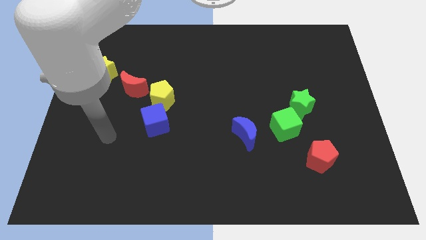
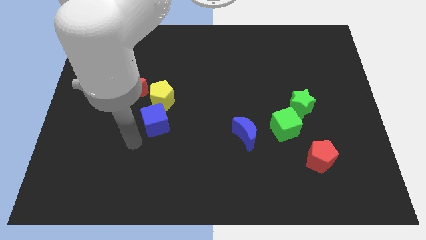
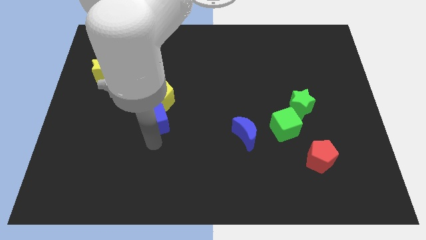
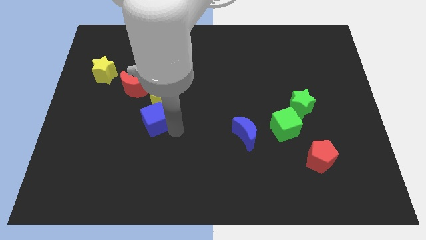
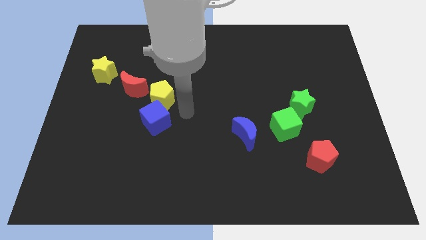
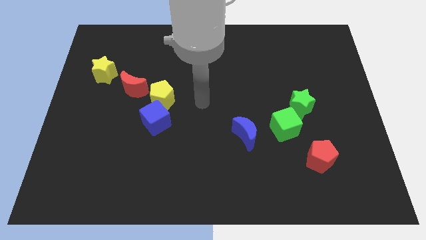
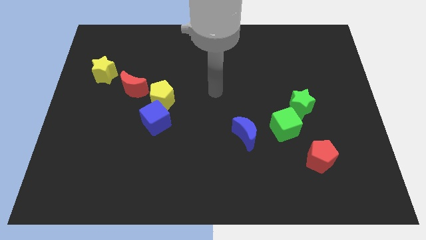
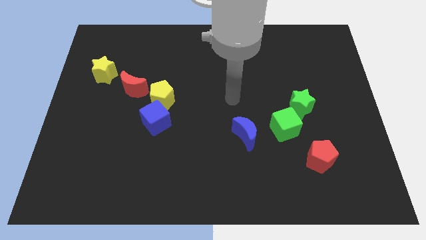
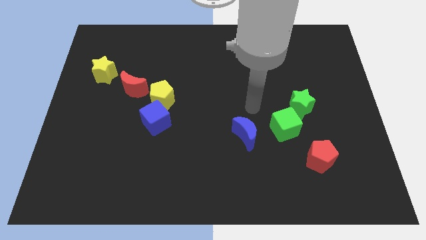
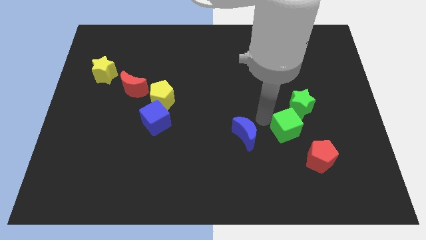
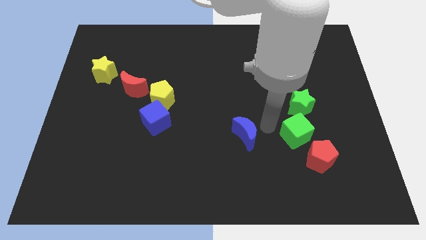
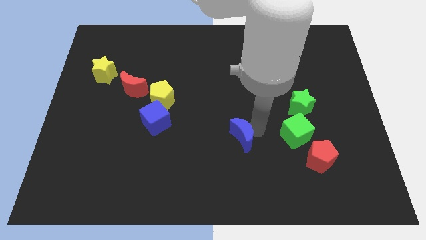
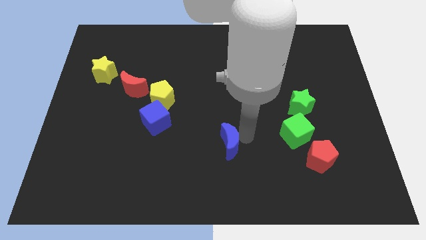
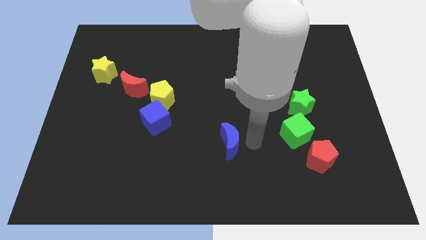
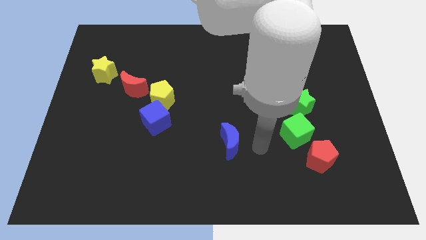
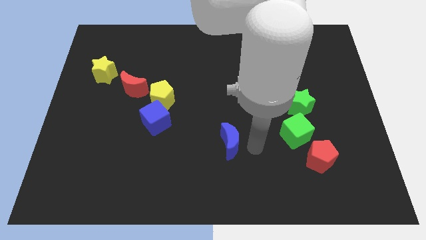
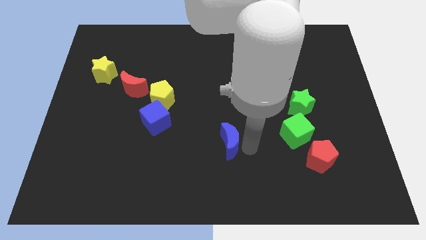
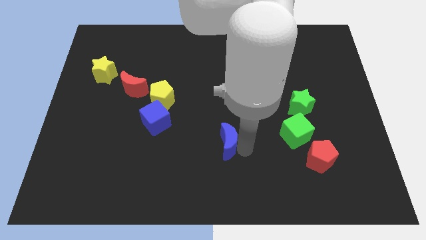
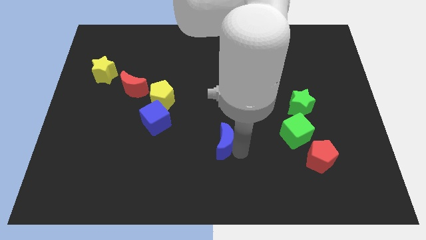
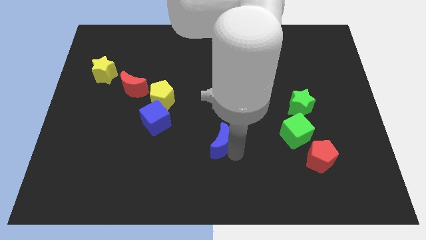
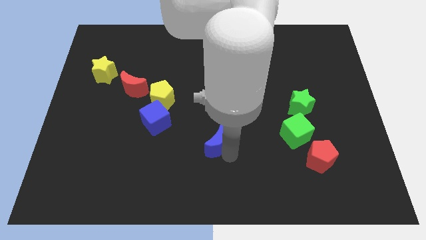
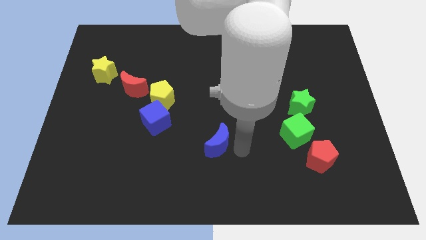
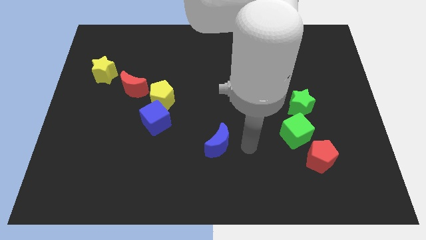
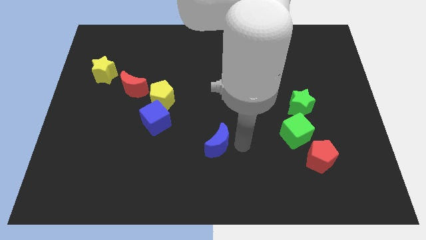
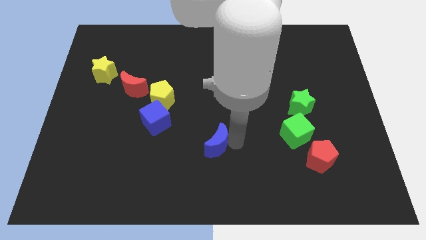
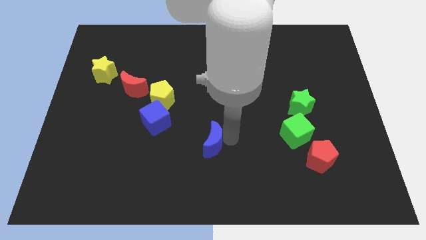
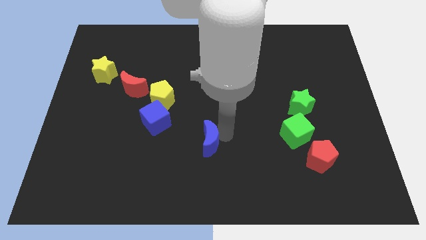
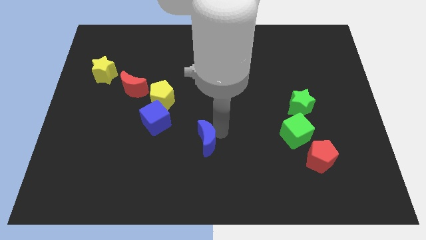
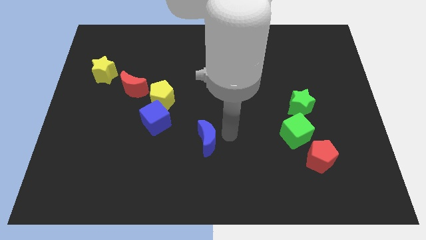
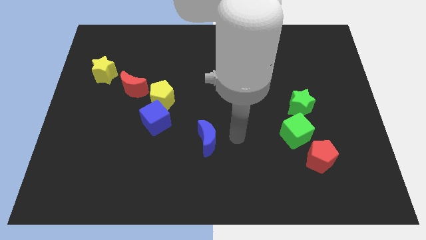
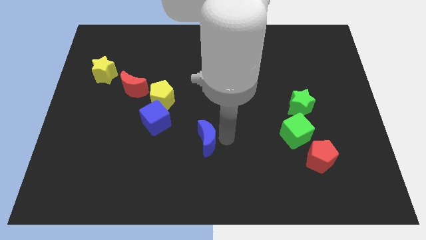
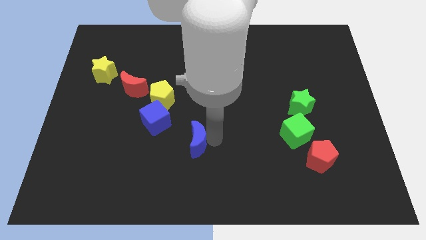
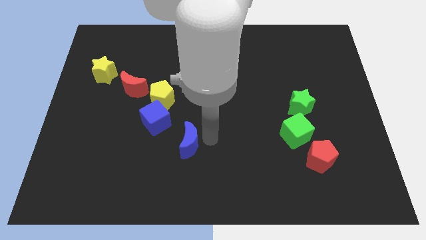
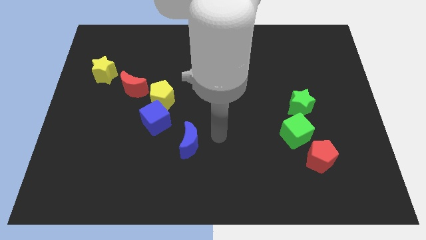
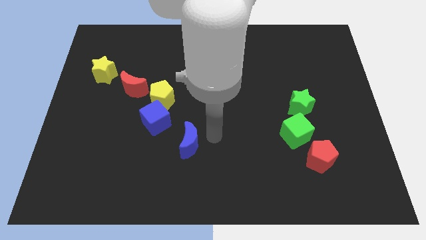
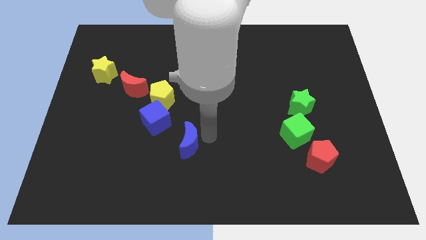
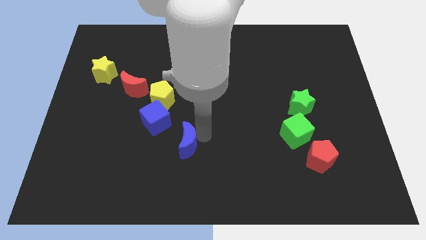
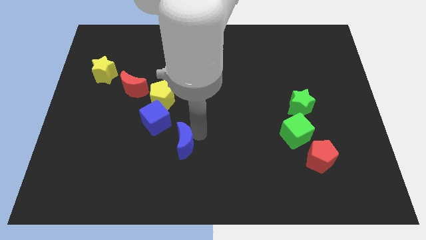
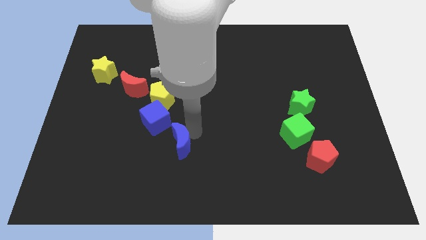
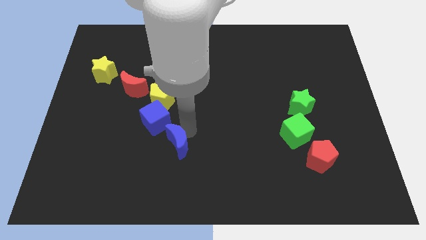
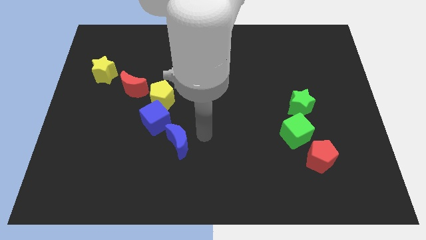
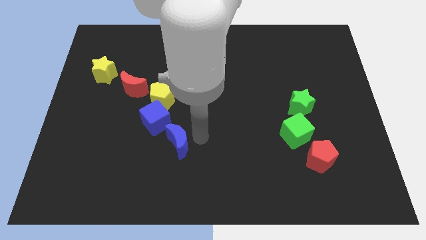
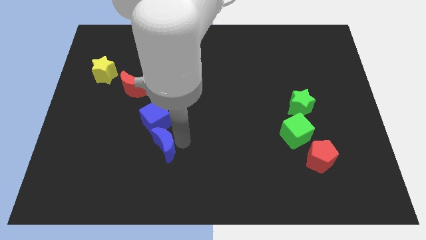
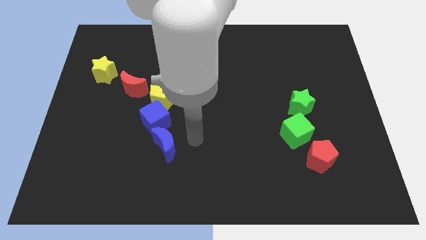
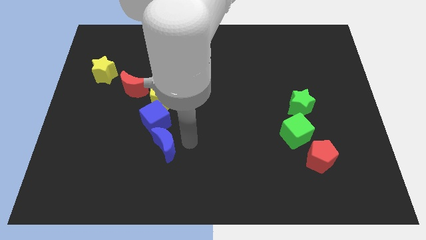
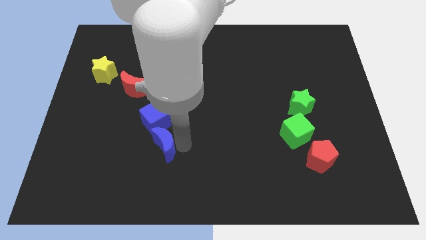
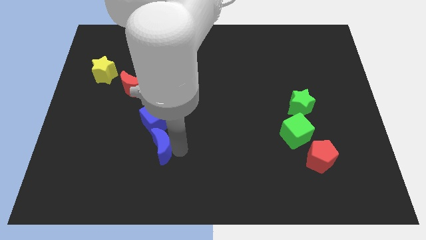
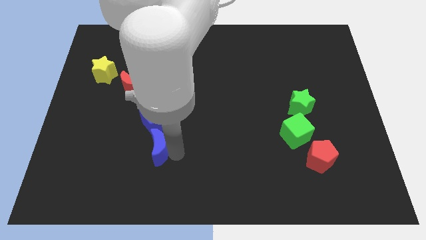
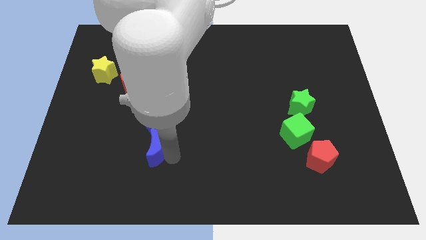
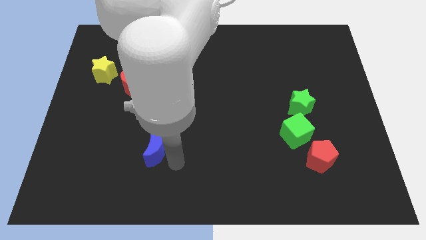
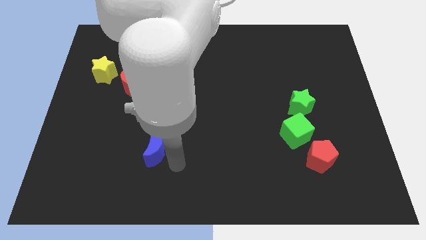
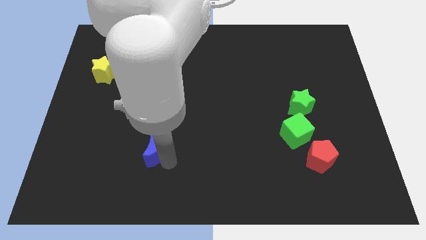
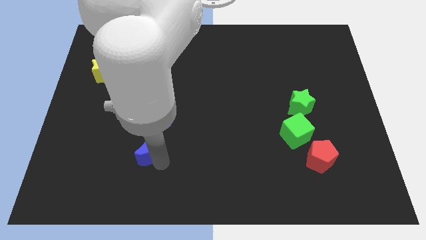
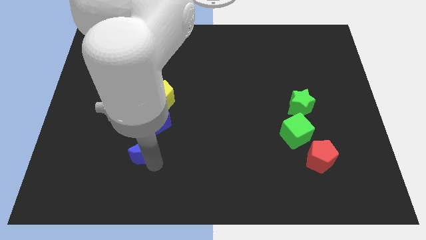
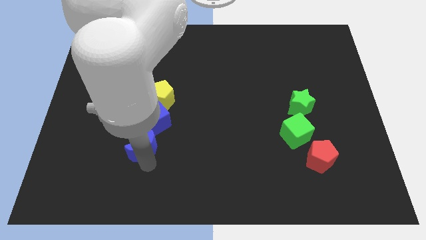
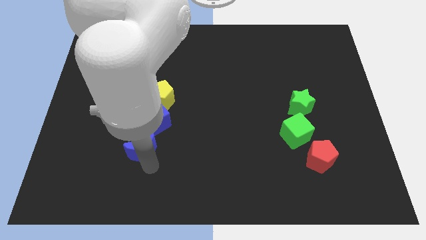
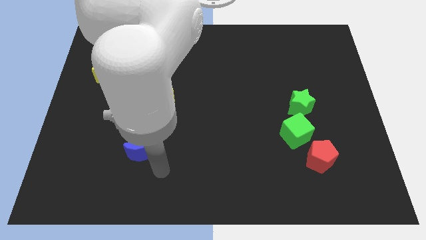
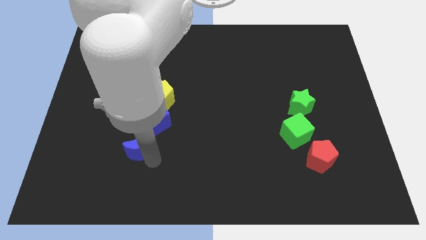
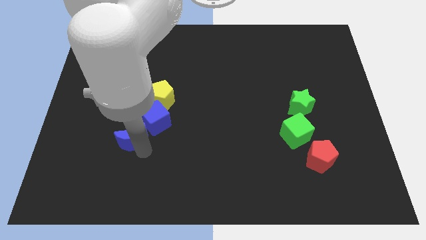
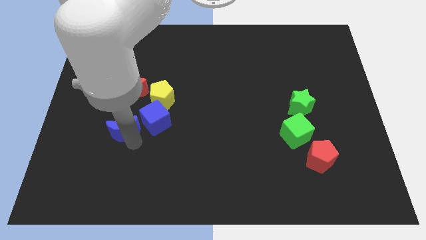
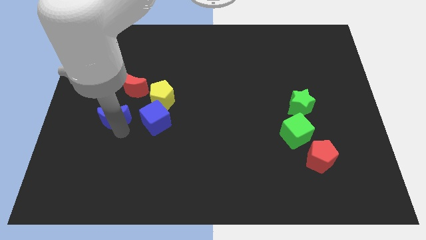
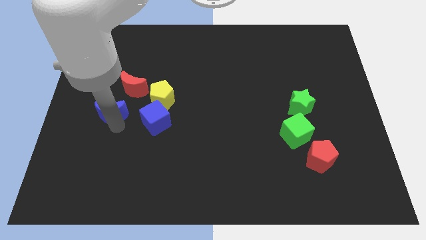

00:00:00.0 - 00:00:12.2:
put the blue moon to the left side of the yellow pentagon
